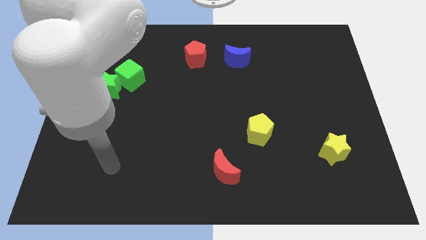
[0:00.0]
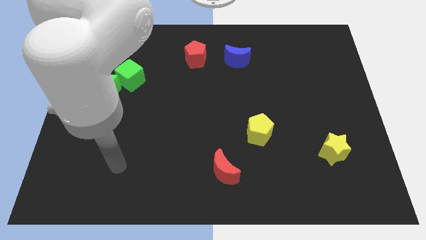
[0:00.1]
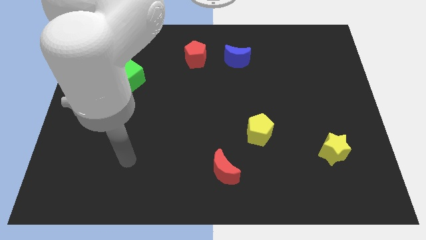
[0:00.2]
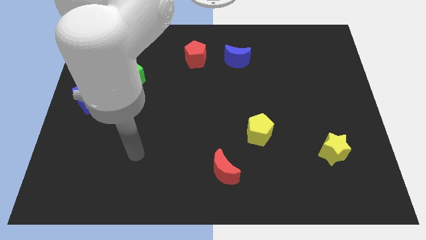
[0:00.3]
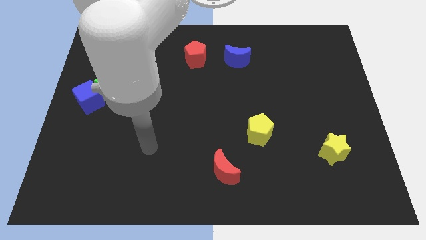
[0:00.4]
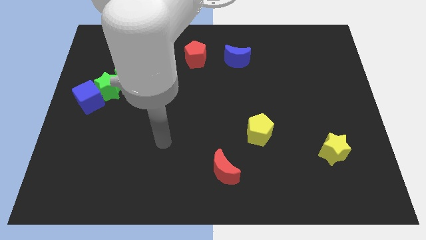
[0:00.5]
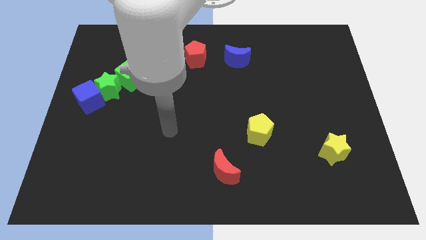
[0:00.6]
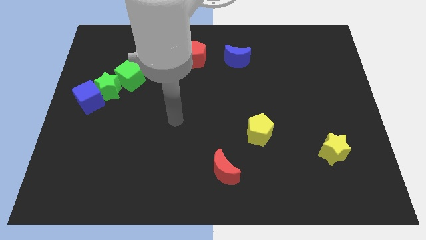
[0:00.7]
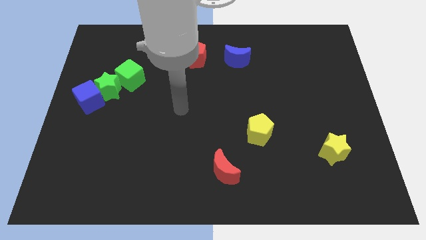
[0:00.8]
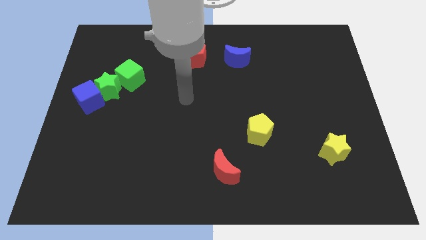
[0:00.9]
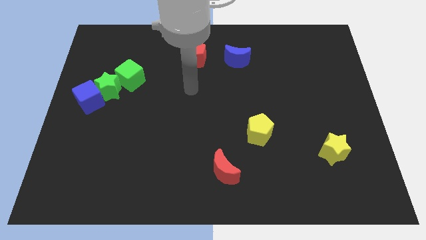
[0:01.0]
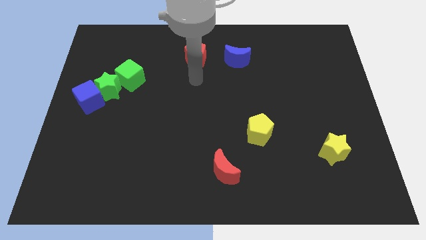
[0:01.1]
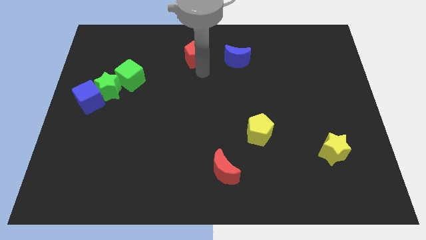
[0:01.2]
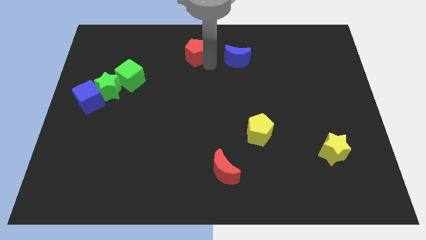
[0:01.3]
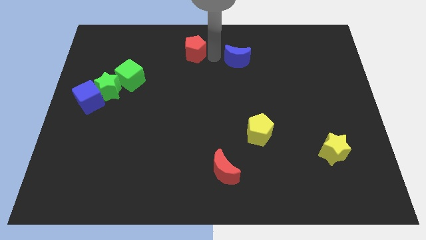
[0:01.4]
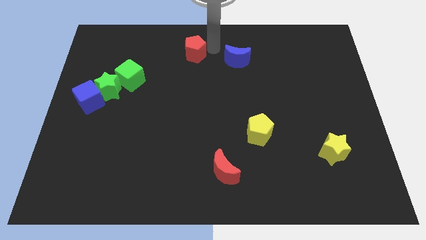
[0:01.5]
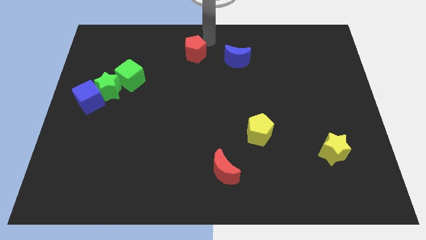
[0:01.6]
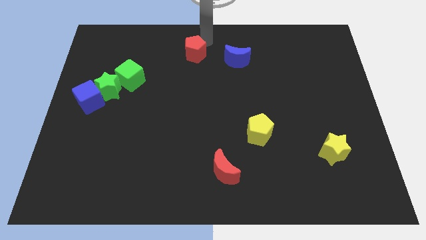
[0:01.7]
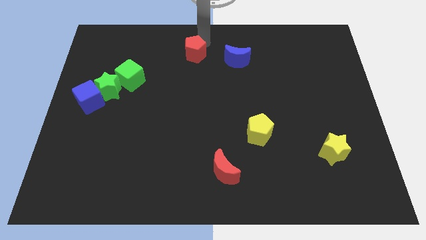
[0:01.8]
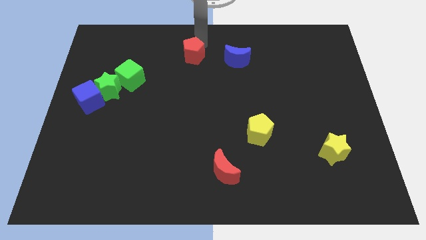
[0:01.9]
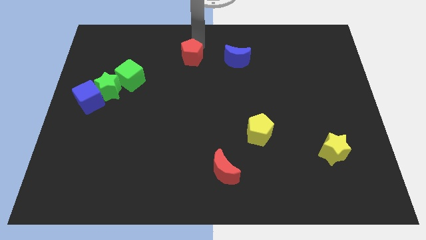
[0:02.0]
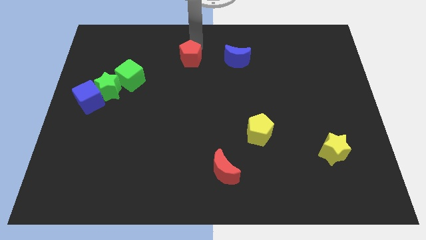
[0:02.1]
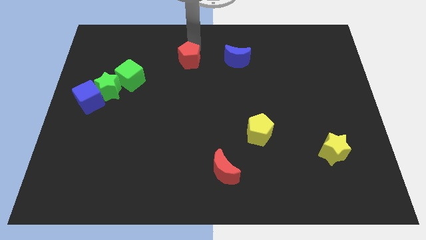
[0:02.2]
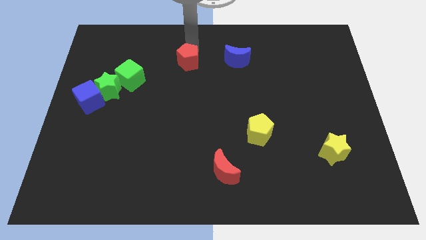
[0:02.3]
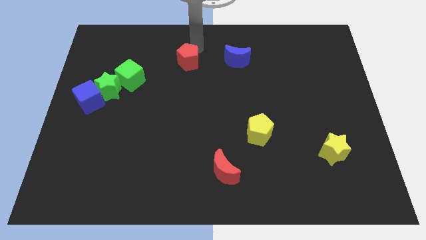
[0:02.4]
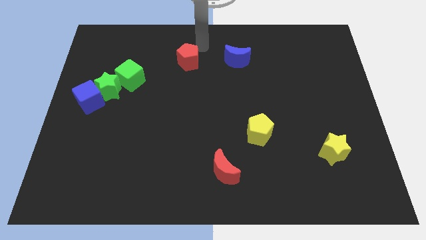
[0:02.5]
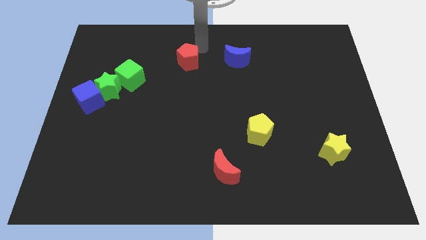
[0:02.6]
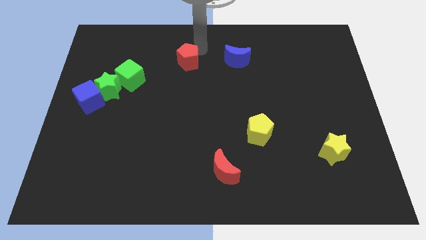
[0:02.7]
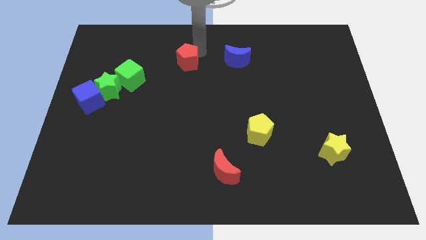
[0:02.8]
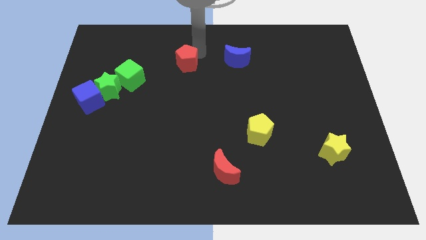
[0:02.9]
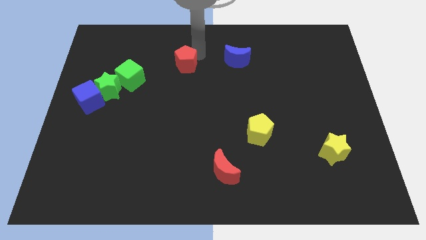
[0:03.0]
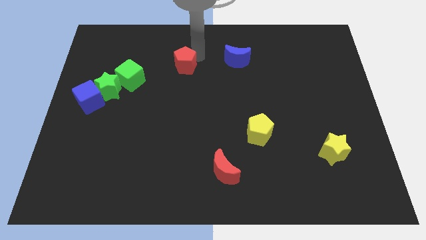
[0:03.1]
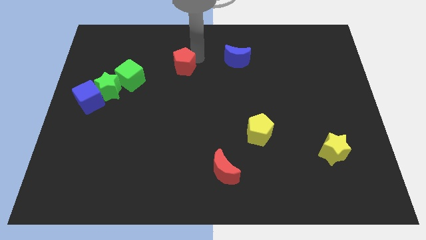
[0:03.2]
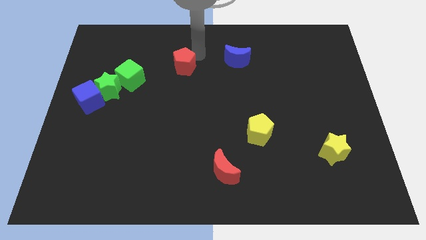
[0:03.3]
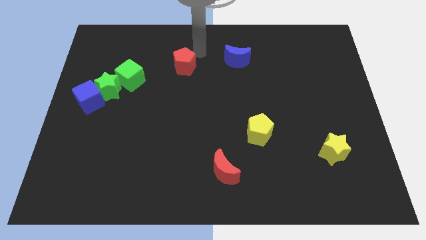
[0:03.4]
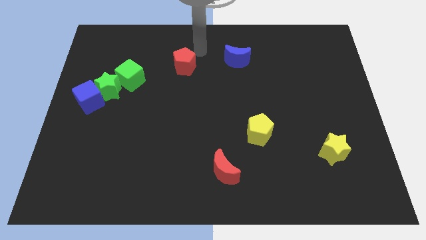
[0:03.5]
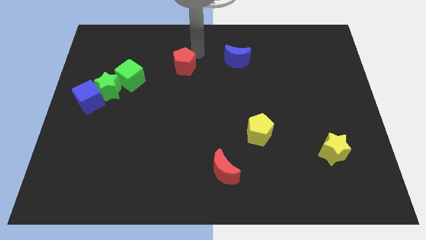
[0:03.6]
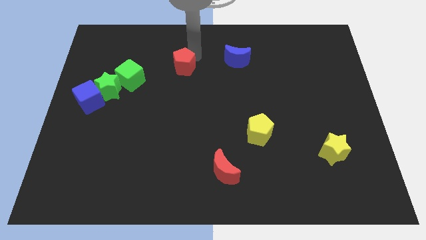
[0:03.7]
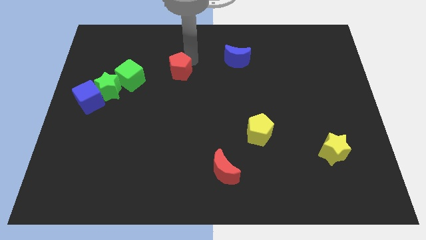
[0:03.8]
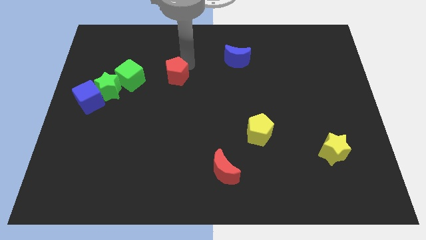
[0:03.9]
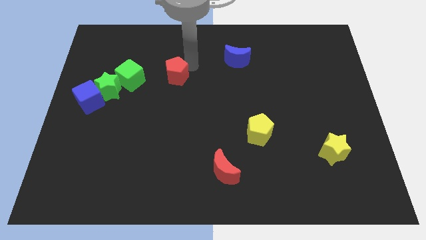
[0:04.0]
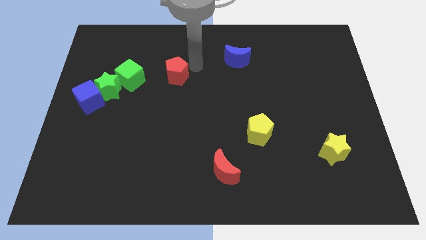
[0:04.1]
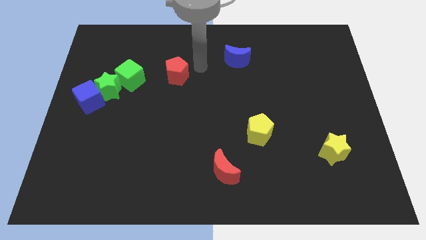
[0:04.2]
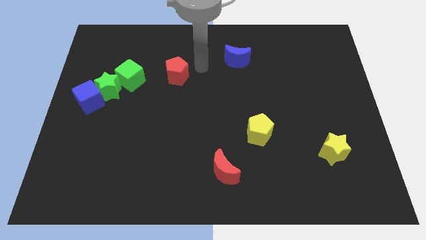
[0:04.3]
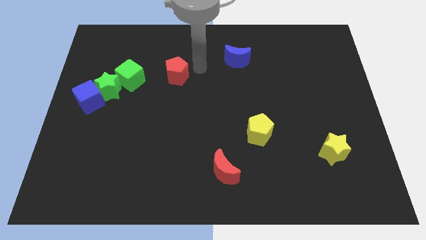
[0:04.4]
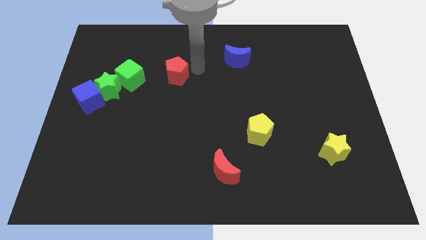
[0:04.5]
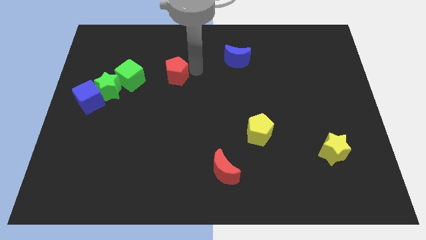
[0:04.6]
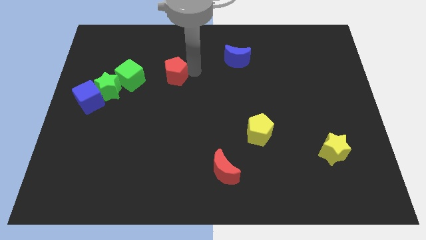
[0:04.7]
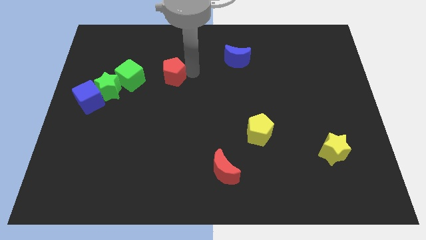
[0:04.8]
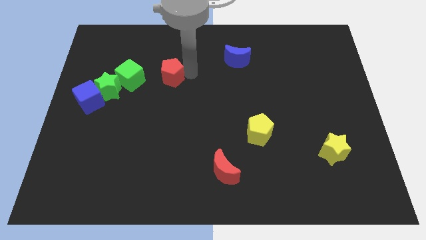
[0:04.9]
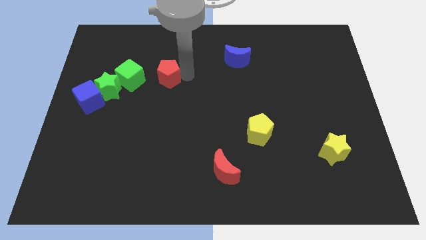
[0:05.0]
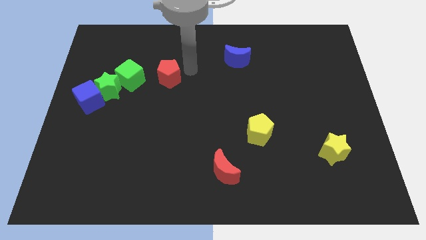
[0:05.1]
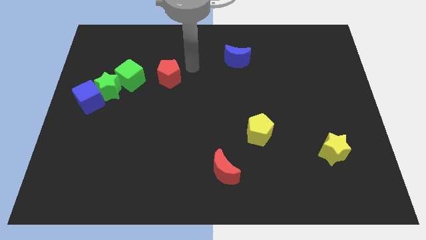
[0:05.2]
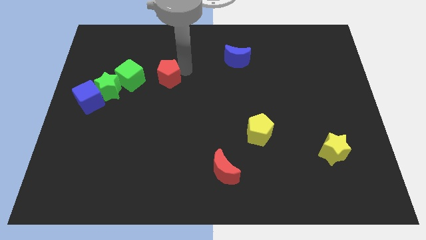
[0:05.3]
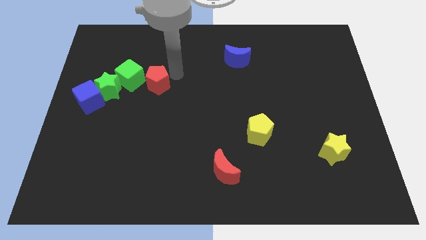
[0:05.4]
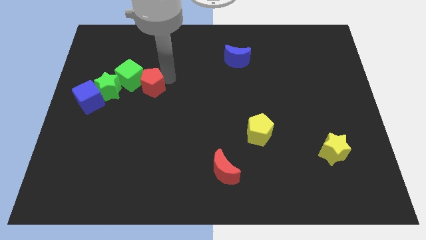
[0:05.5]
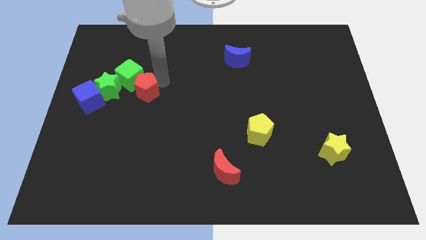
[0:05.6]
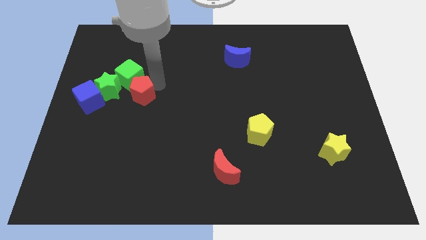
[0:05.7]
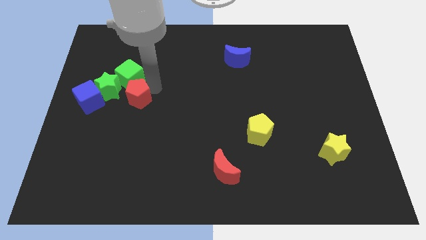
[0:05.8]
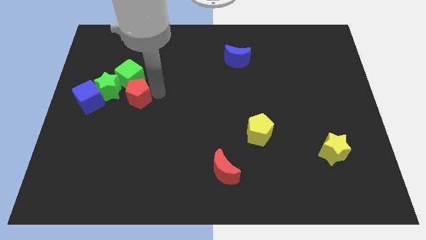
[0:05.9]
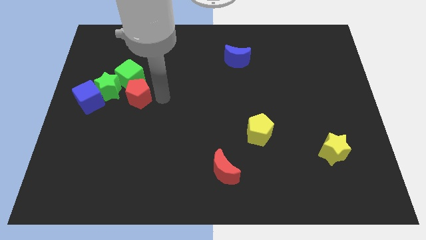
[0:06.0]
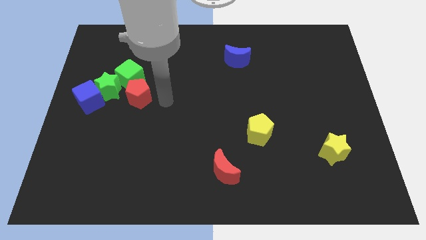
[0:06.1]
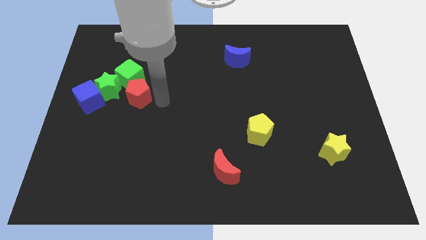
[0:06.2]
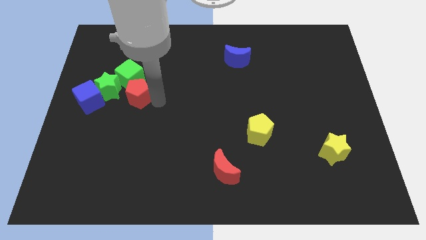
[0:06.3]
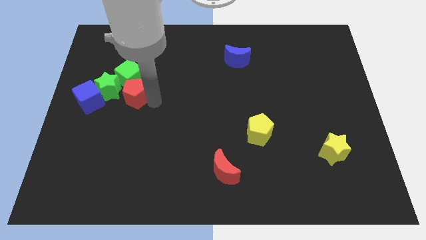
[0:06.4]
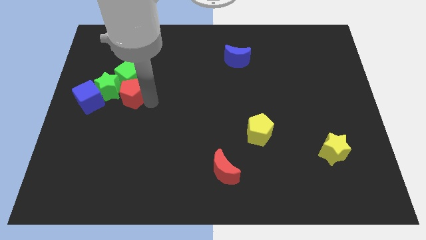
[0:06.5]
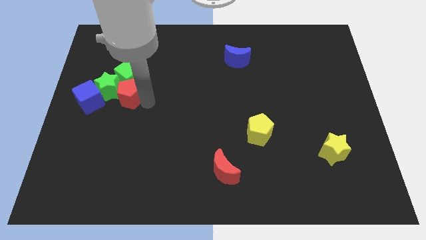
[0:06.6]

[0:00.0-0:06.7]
move the red pentagon close to the green star
